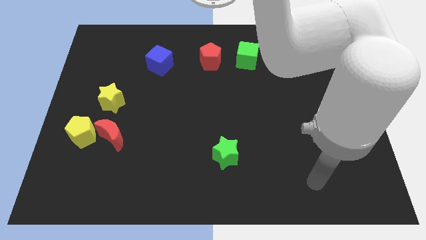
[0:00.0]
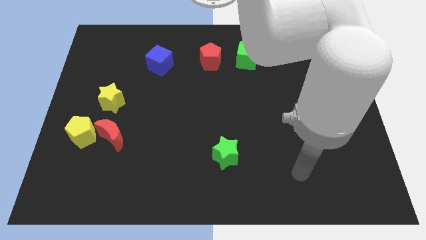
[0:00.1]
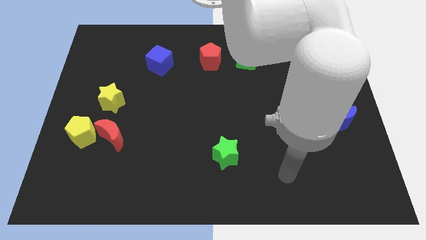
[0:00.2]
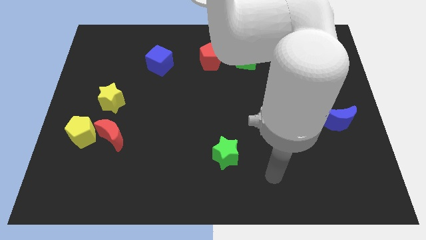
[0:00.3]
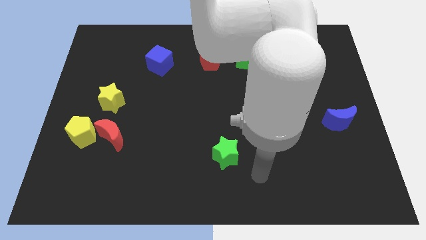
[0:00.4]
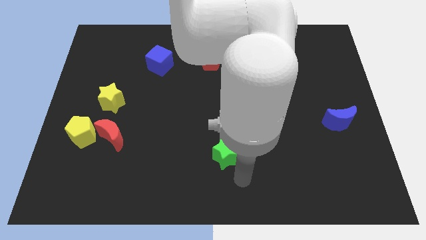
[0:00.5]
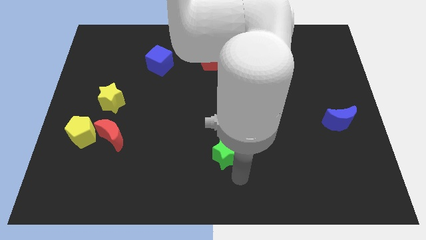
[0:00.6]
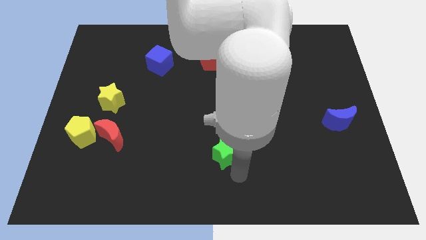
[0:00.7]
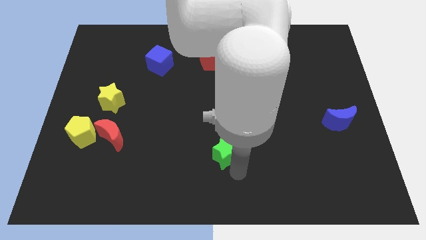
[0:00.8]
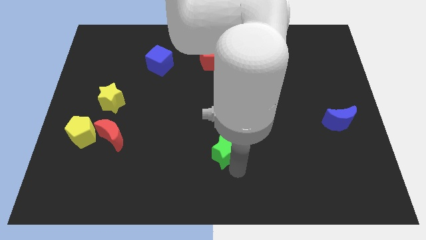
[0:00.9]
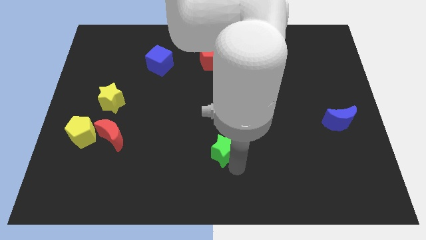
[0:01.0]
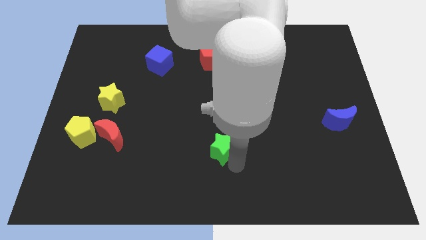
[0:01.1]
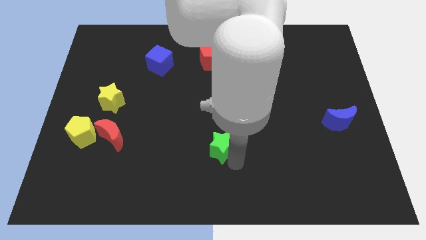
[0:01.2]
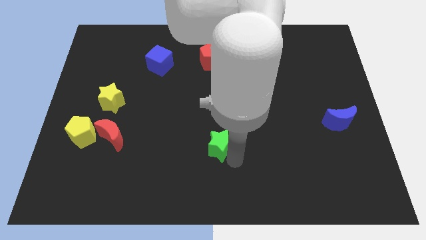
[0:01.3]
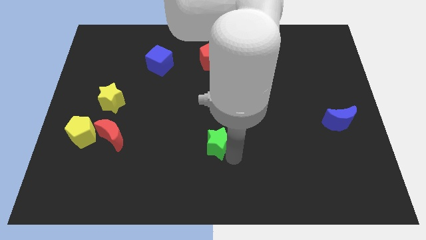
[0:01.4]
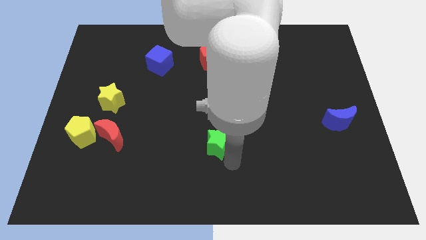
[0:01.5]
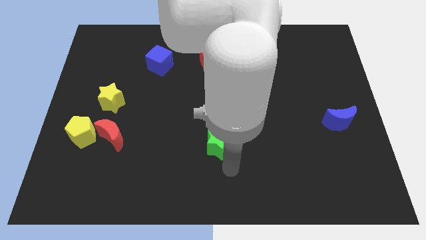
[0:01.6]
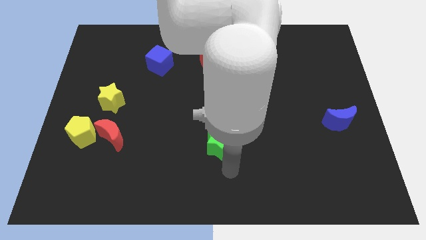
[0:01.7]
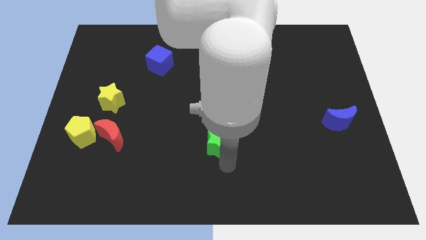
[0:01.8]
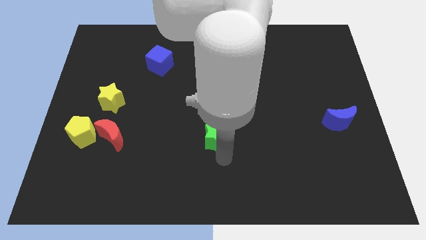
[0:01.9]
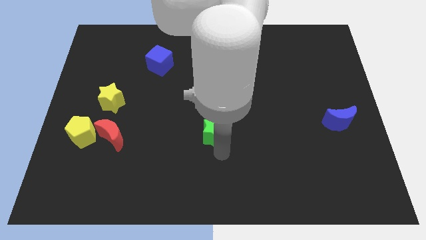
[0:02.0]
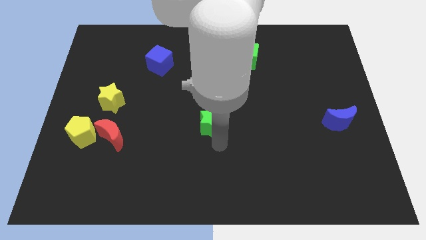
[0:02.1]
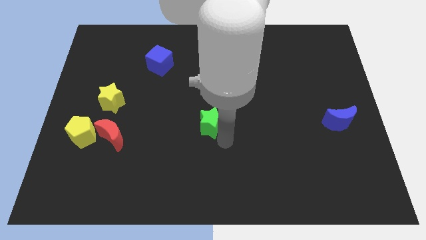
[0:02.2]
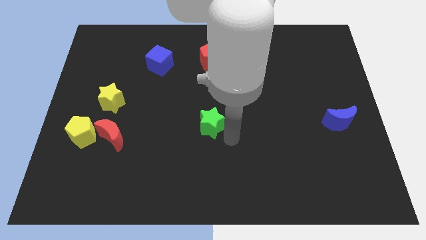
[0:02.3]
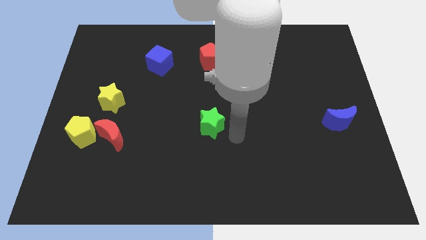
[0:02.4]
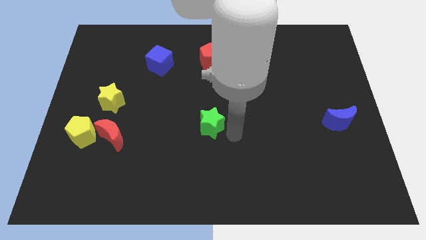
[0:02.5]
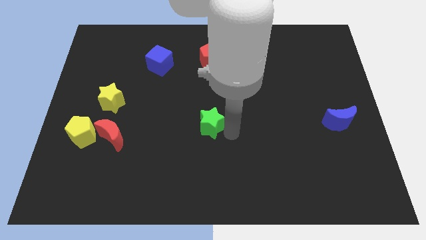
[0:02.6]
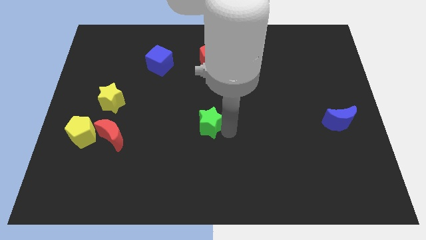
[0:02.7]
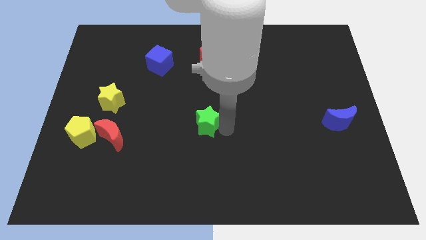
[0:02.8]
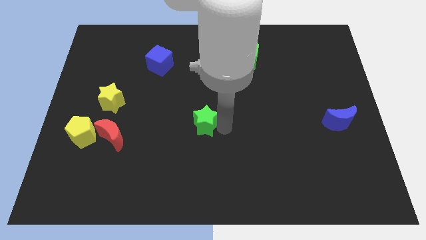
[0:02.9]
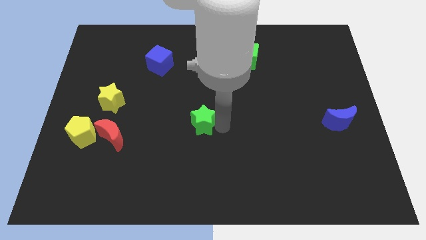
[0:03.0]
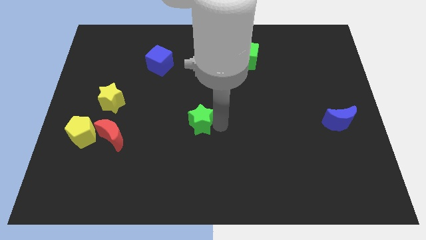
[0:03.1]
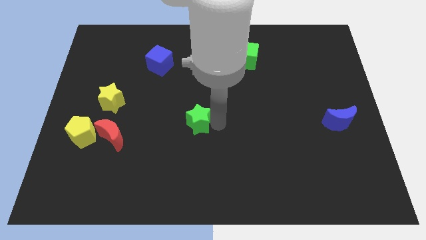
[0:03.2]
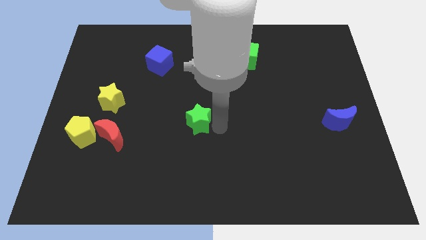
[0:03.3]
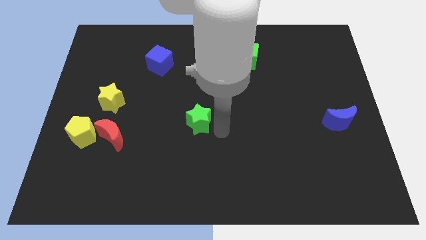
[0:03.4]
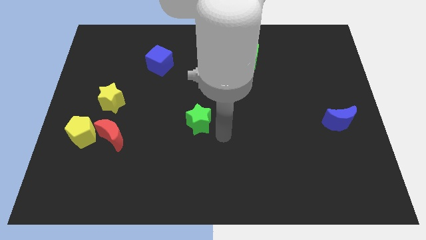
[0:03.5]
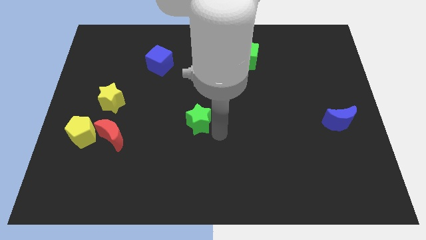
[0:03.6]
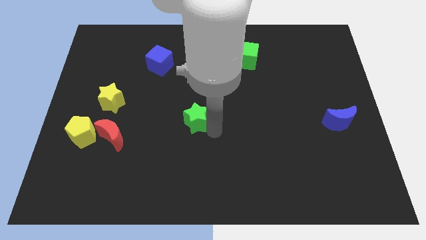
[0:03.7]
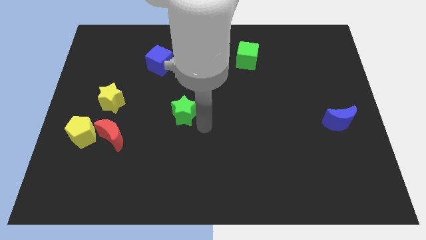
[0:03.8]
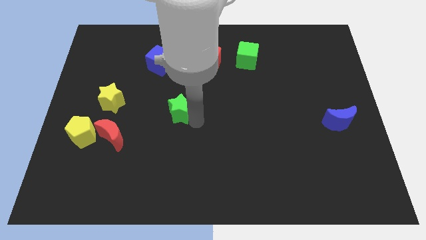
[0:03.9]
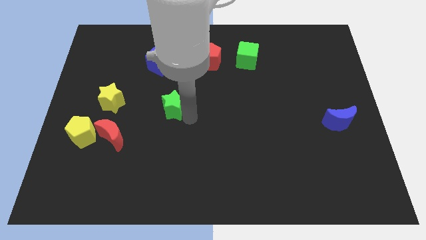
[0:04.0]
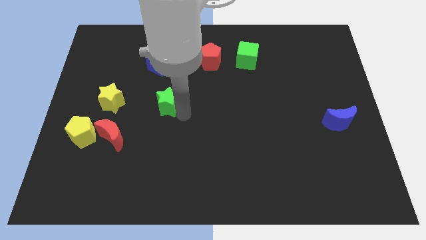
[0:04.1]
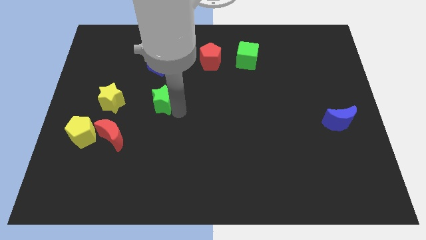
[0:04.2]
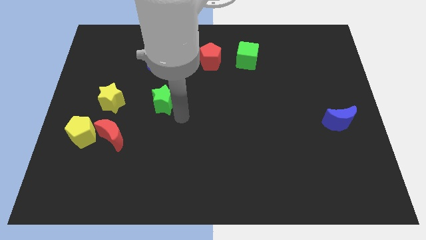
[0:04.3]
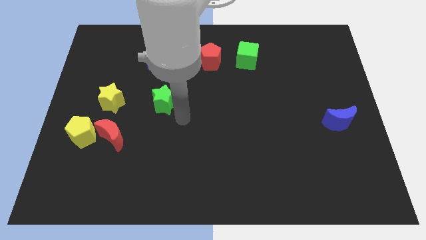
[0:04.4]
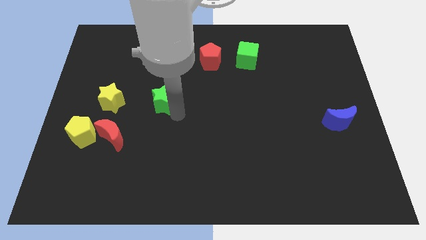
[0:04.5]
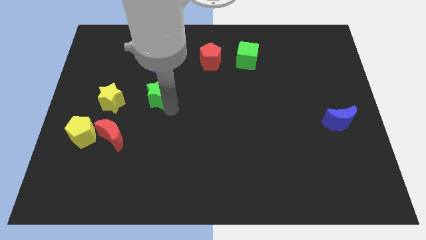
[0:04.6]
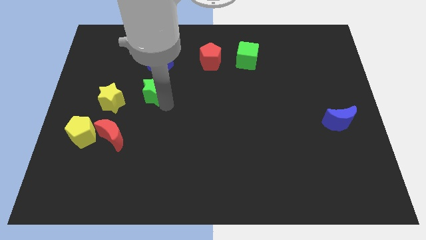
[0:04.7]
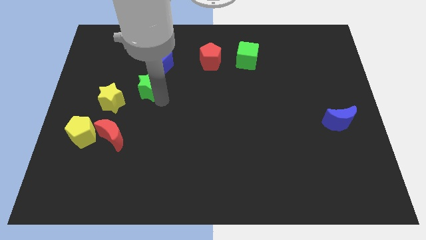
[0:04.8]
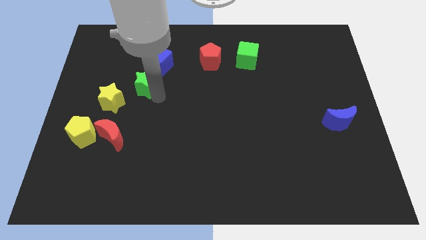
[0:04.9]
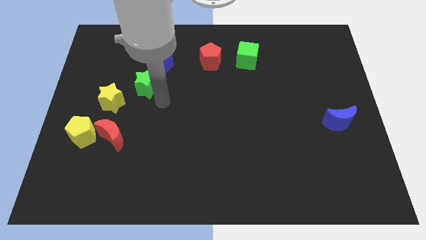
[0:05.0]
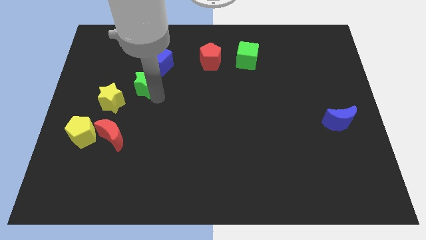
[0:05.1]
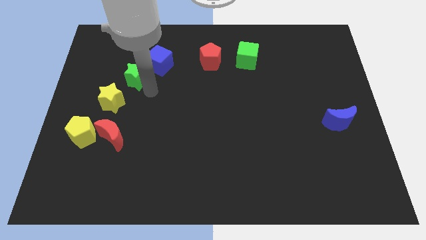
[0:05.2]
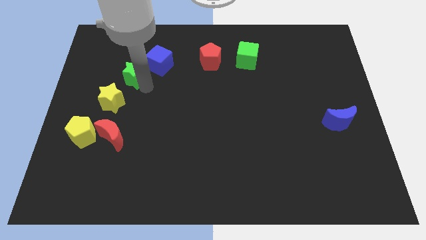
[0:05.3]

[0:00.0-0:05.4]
put the green star to the left of the blue cube

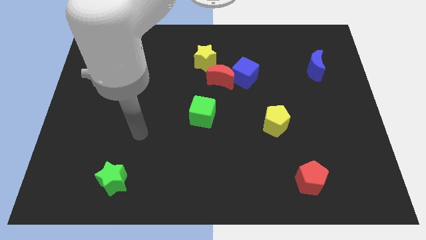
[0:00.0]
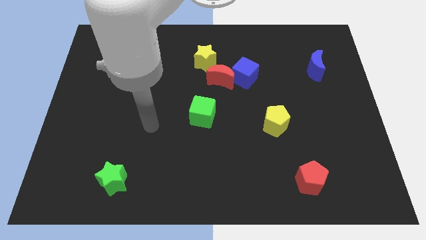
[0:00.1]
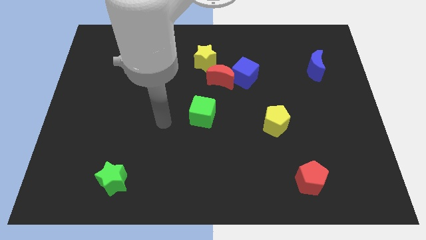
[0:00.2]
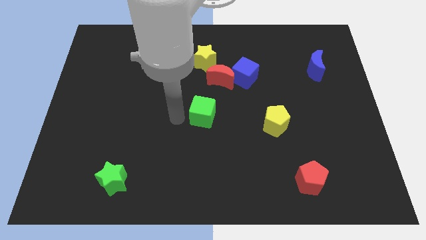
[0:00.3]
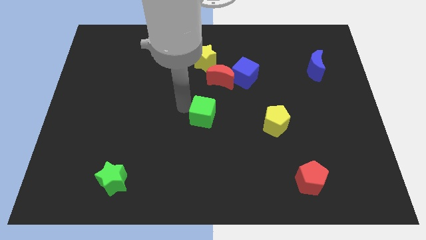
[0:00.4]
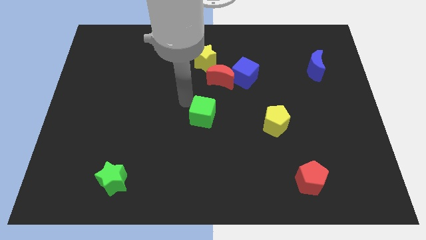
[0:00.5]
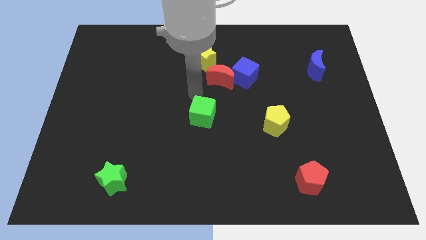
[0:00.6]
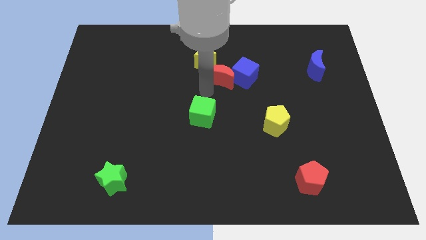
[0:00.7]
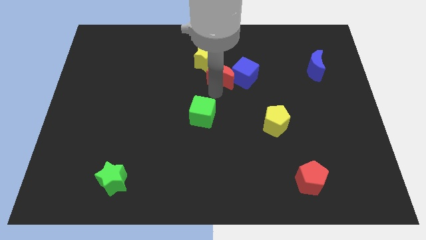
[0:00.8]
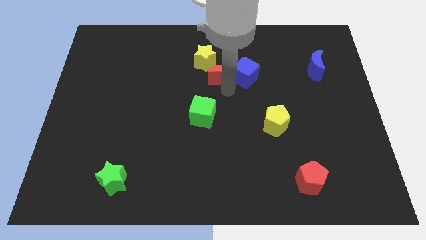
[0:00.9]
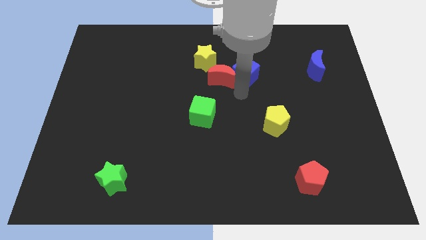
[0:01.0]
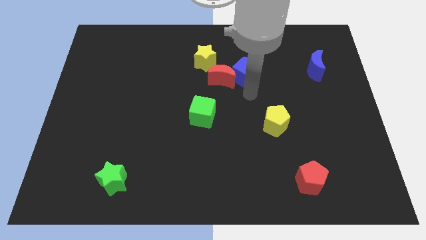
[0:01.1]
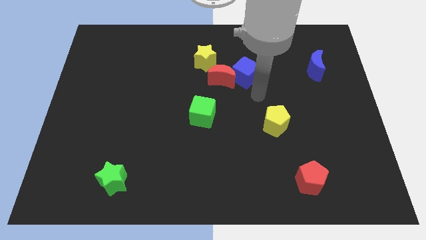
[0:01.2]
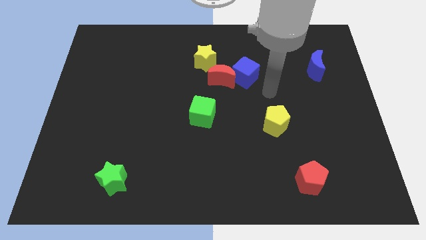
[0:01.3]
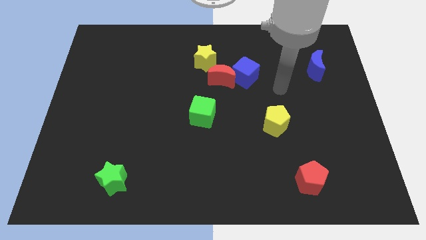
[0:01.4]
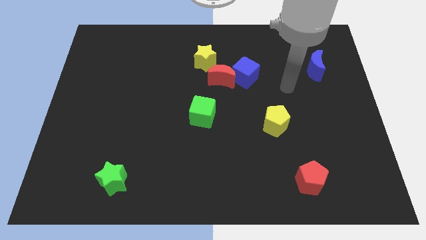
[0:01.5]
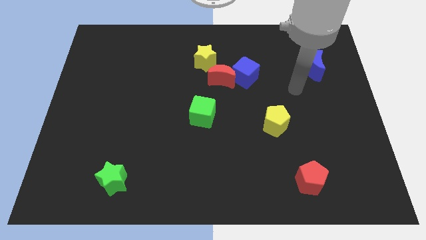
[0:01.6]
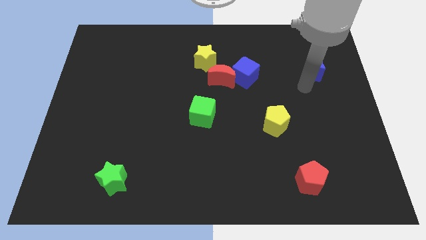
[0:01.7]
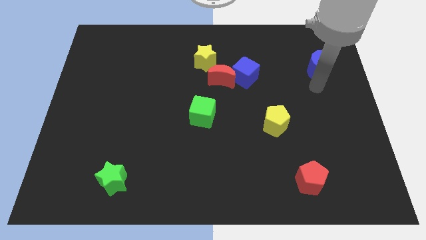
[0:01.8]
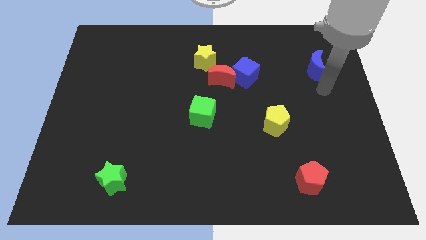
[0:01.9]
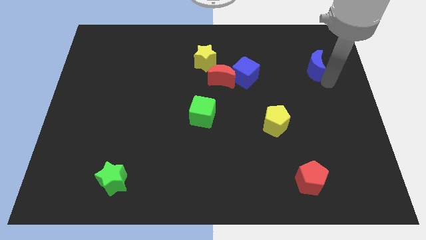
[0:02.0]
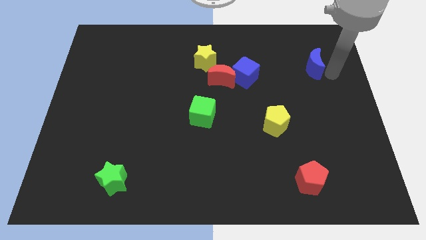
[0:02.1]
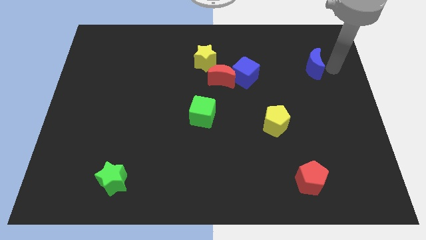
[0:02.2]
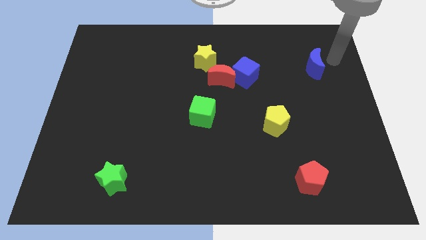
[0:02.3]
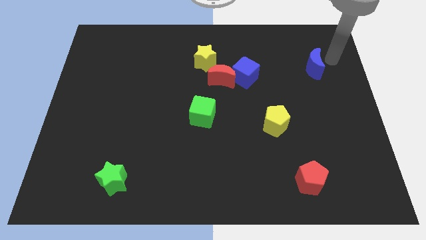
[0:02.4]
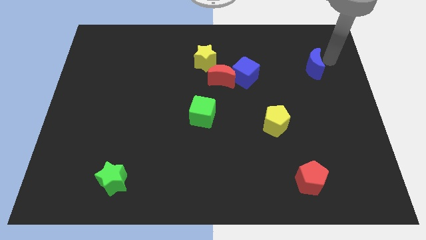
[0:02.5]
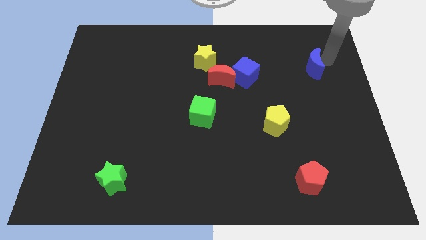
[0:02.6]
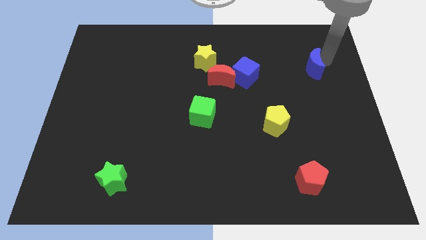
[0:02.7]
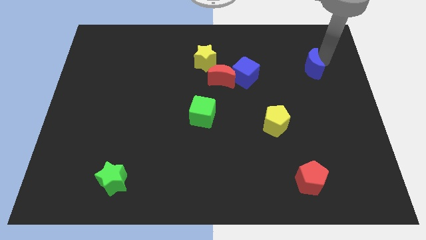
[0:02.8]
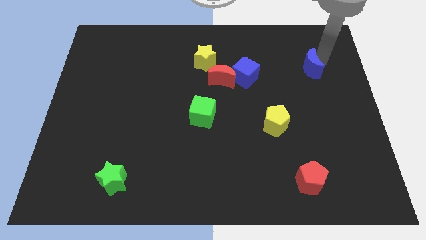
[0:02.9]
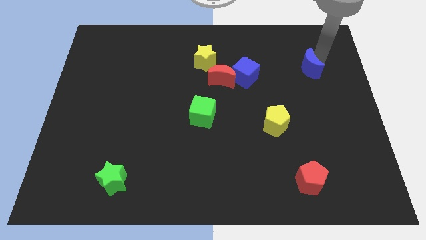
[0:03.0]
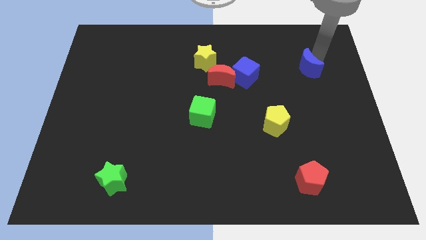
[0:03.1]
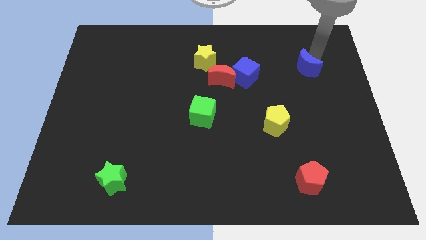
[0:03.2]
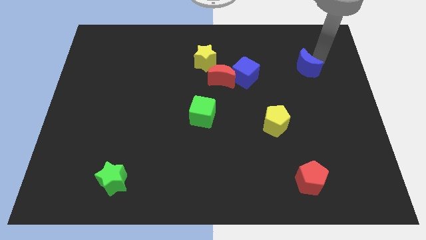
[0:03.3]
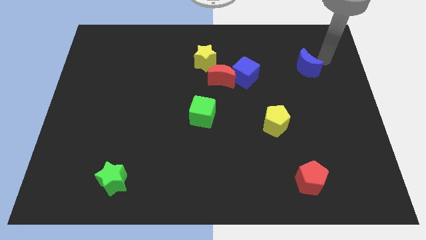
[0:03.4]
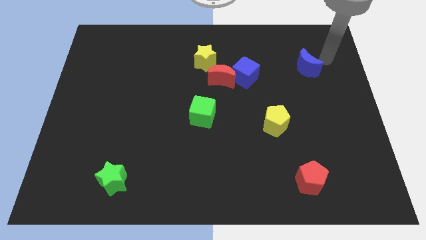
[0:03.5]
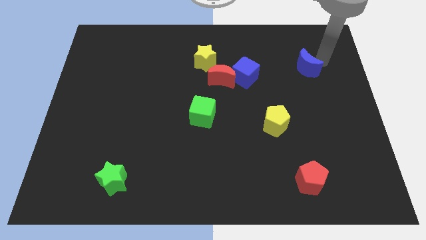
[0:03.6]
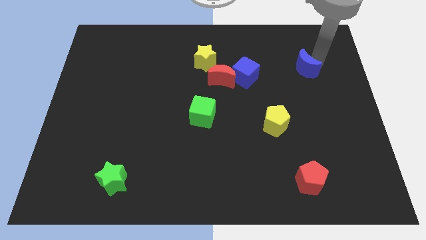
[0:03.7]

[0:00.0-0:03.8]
move the blue moon right of the blue cube
